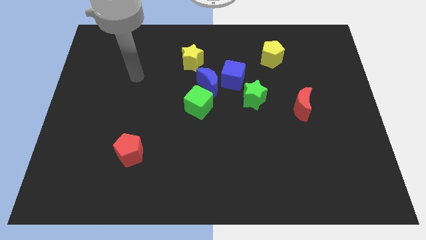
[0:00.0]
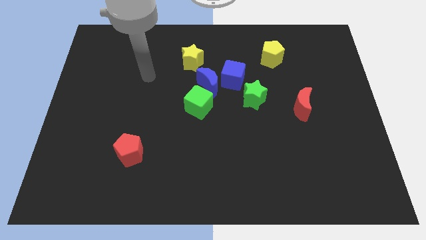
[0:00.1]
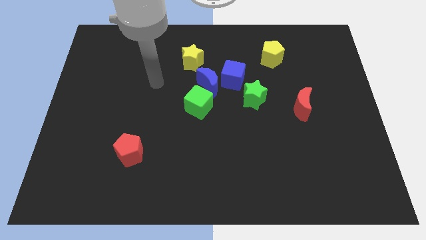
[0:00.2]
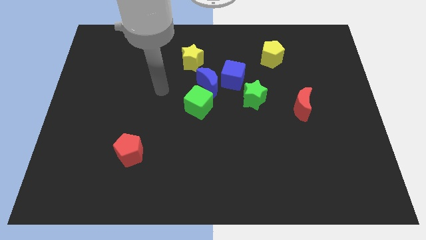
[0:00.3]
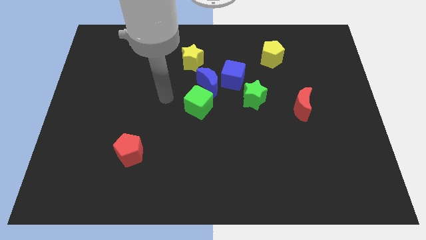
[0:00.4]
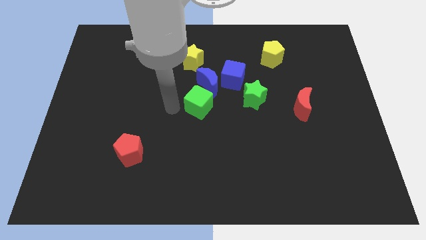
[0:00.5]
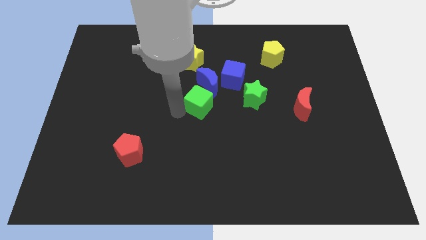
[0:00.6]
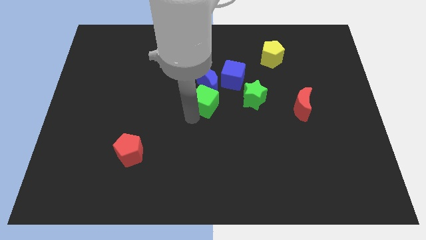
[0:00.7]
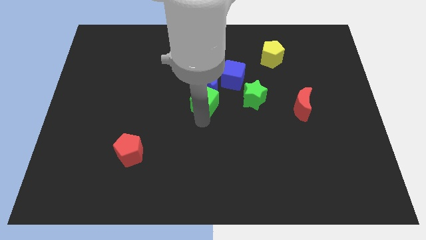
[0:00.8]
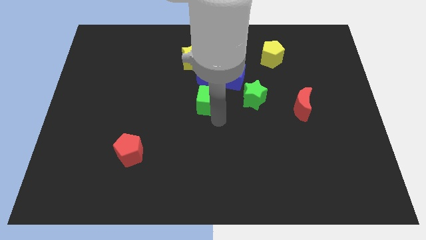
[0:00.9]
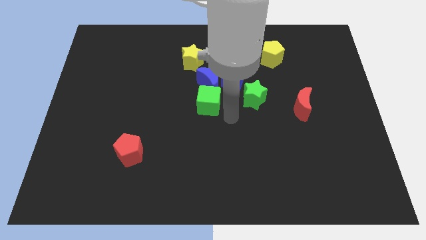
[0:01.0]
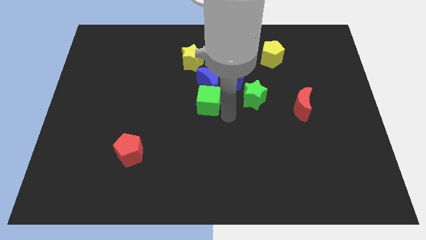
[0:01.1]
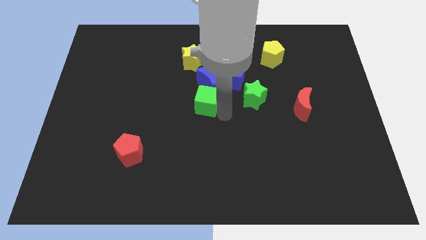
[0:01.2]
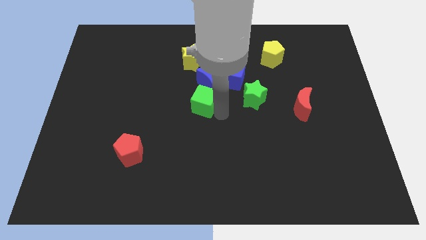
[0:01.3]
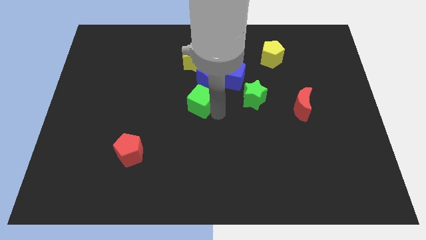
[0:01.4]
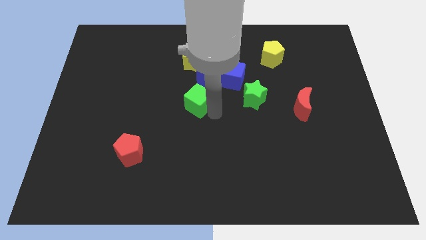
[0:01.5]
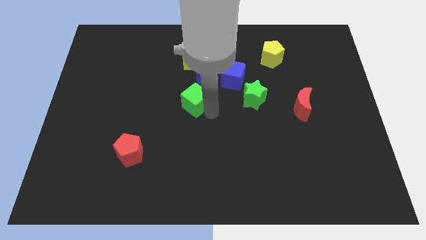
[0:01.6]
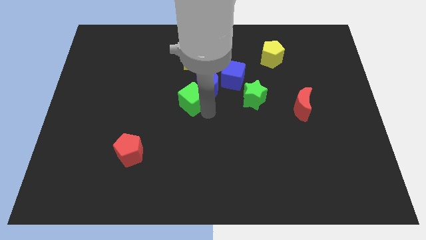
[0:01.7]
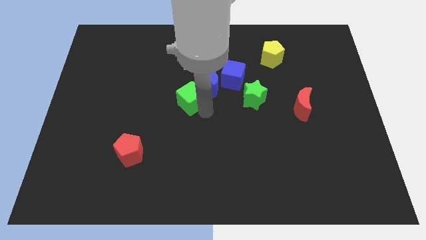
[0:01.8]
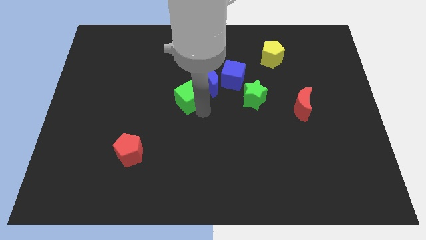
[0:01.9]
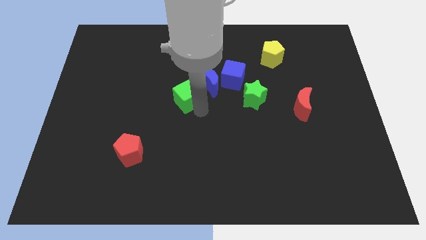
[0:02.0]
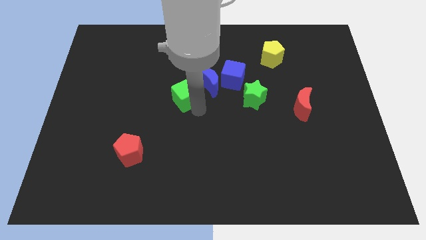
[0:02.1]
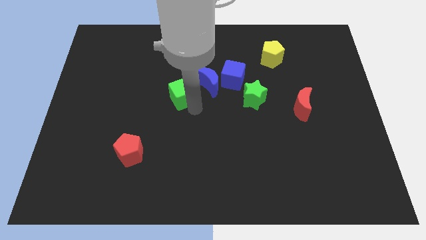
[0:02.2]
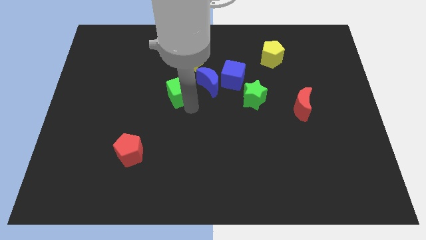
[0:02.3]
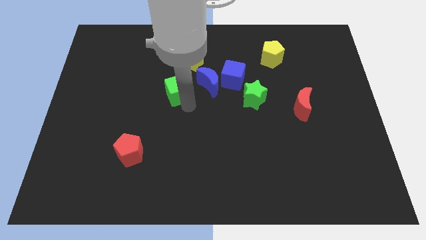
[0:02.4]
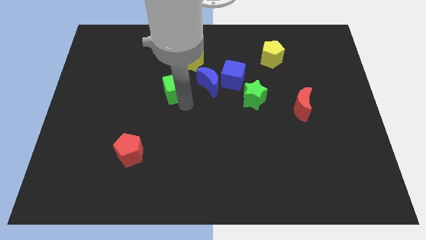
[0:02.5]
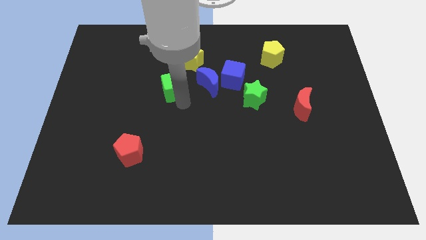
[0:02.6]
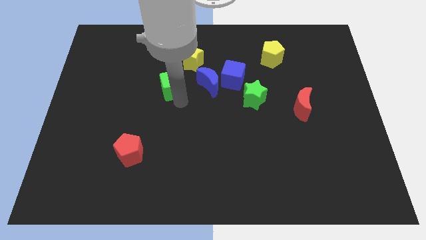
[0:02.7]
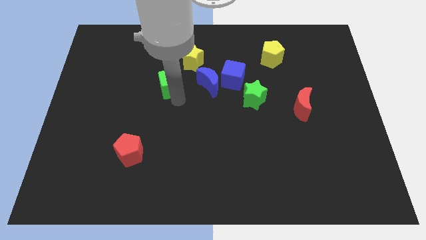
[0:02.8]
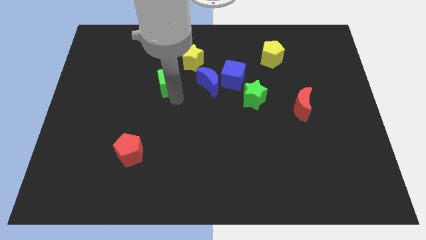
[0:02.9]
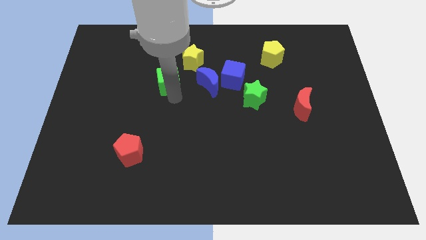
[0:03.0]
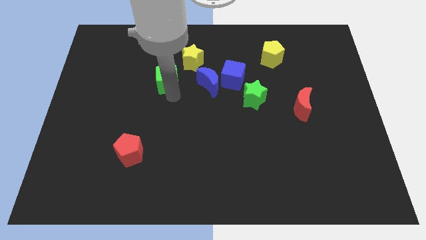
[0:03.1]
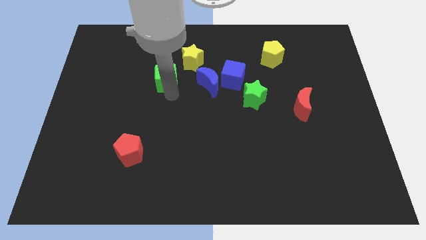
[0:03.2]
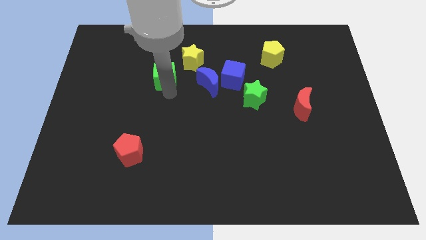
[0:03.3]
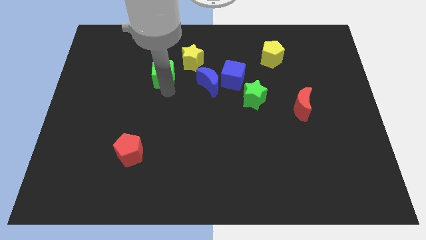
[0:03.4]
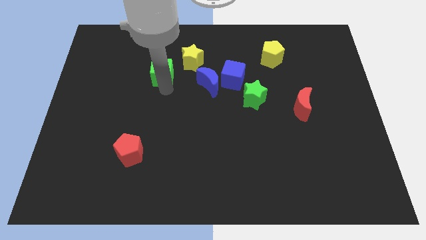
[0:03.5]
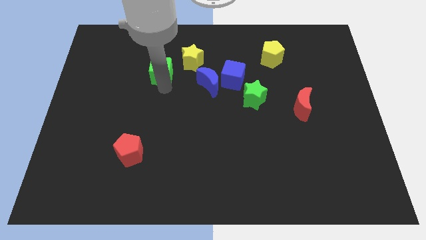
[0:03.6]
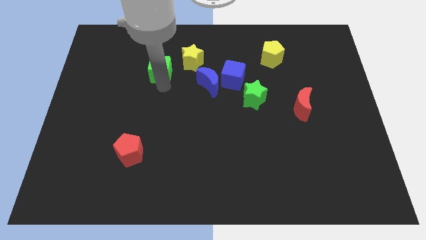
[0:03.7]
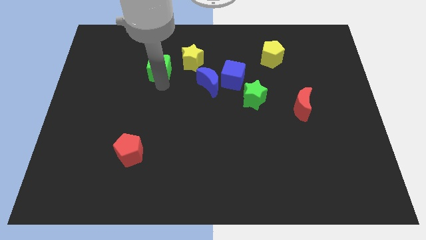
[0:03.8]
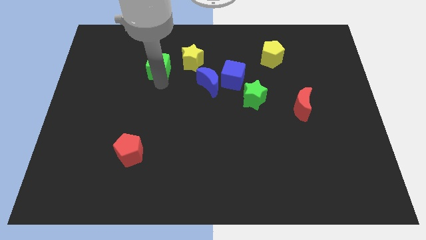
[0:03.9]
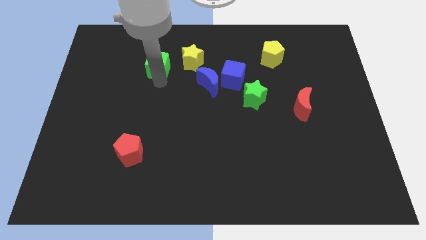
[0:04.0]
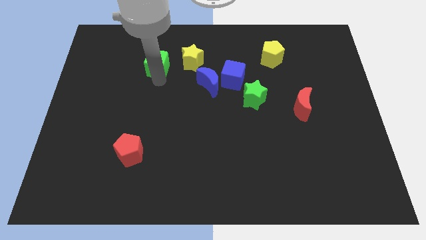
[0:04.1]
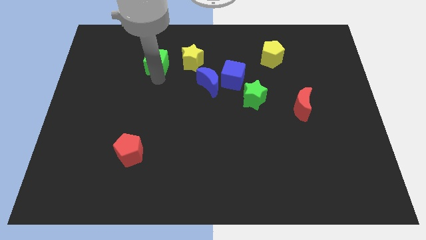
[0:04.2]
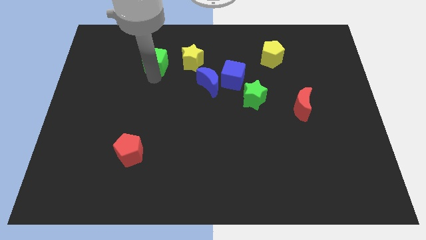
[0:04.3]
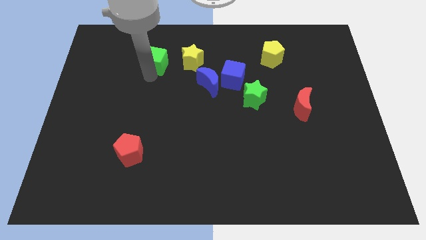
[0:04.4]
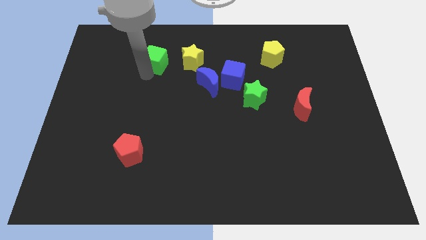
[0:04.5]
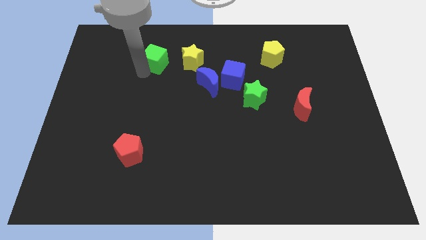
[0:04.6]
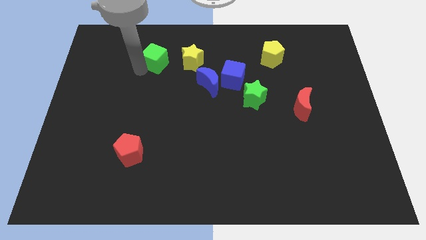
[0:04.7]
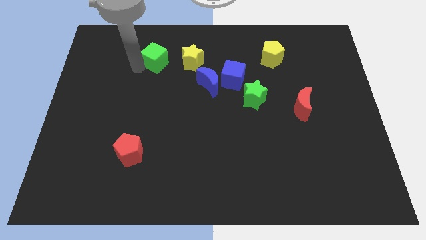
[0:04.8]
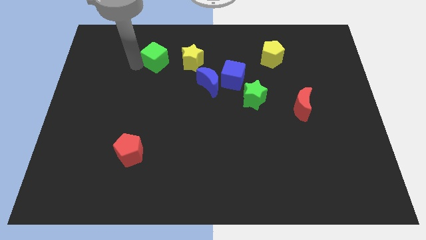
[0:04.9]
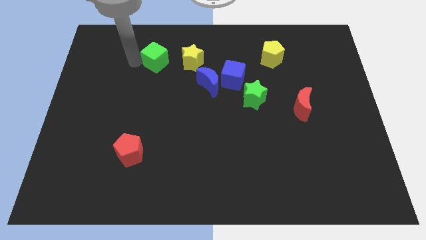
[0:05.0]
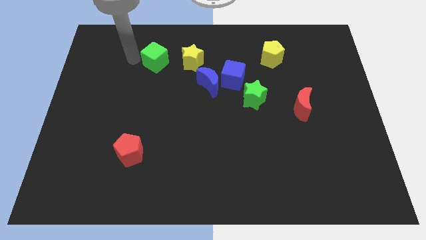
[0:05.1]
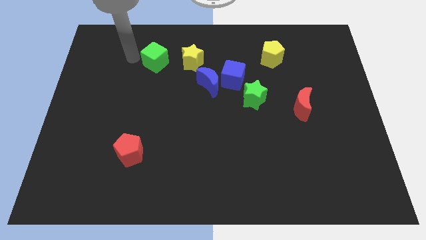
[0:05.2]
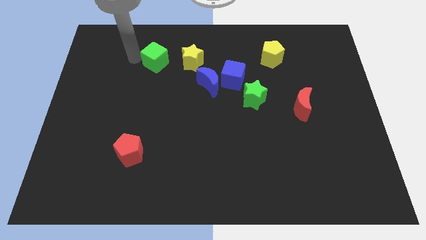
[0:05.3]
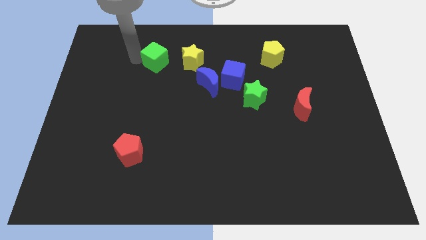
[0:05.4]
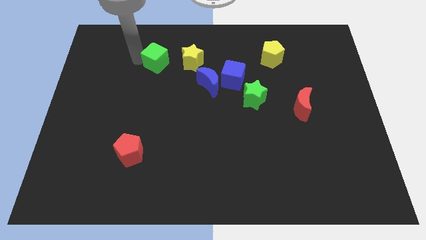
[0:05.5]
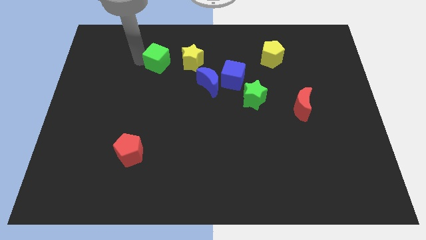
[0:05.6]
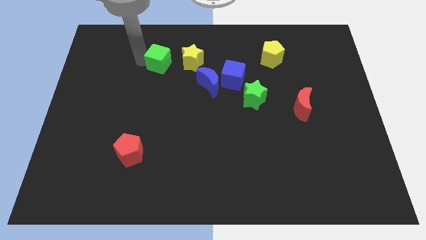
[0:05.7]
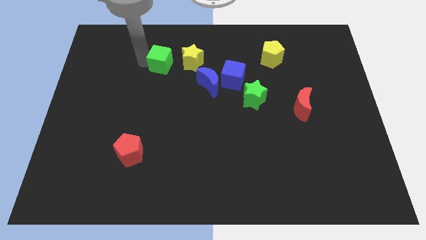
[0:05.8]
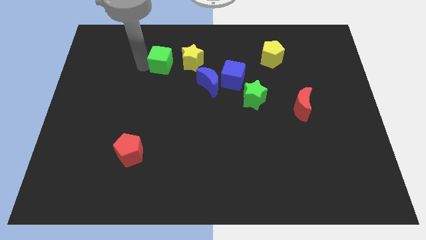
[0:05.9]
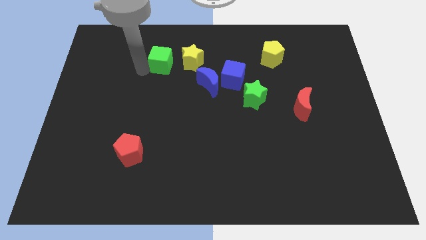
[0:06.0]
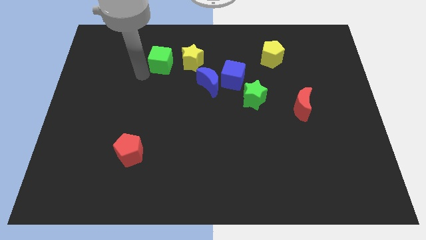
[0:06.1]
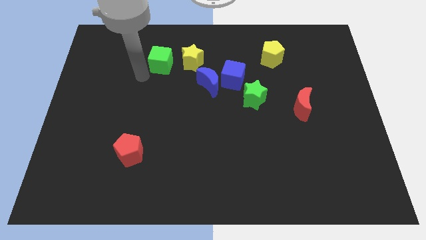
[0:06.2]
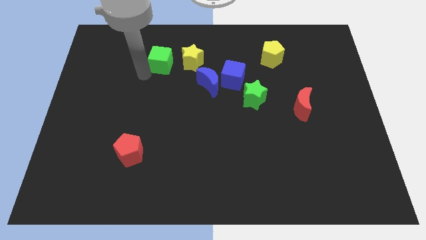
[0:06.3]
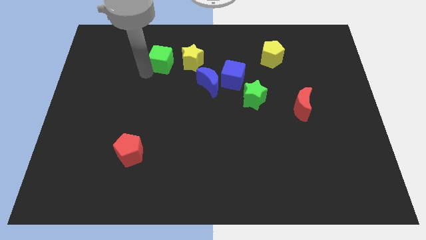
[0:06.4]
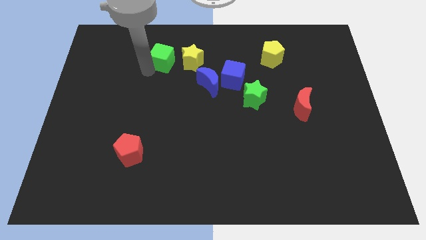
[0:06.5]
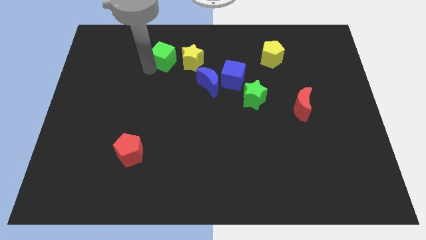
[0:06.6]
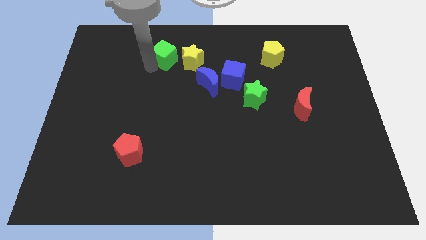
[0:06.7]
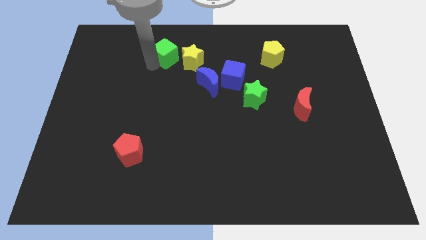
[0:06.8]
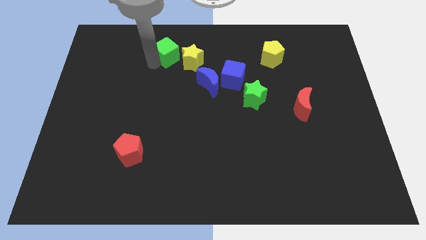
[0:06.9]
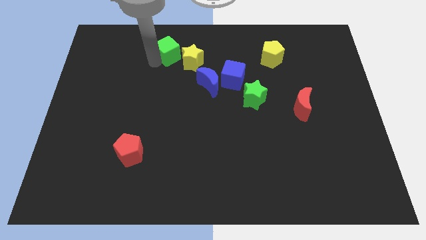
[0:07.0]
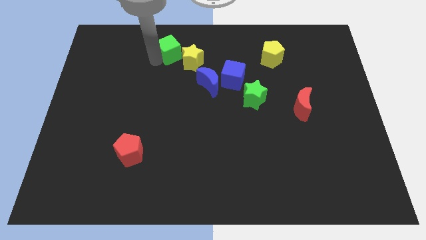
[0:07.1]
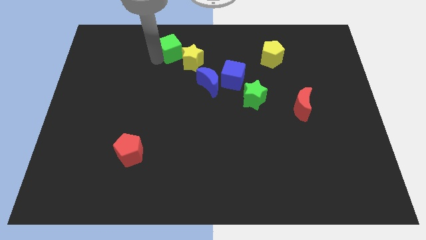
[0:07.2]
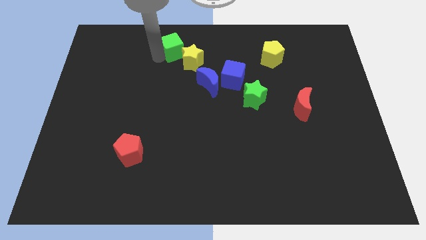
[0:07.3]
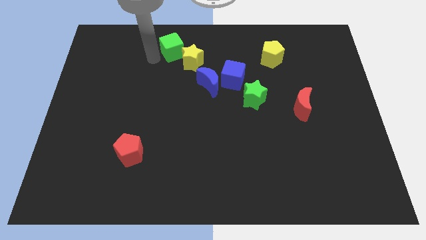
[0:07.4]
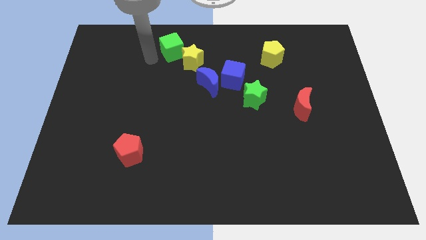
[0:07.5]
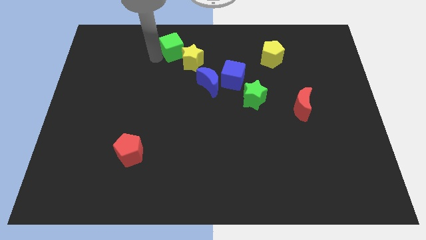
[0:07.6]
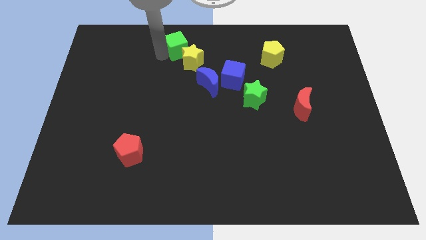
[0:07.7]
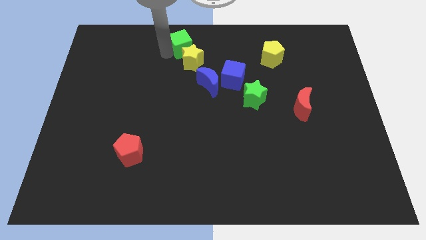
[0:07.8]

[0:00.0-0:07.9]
move the green cube to the towards your base

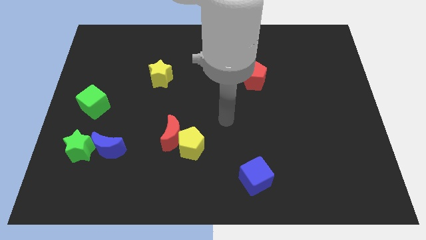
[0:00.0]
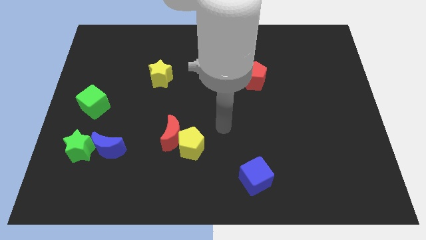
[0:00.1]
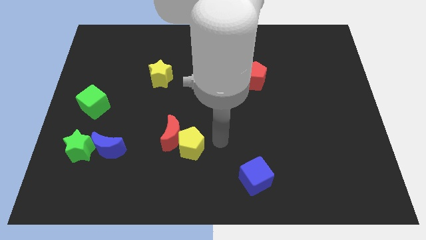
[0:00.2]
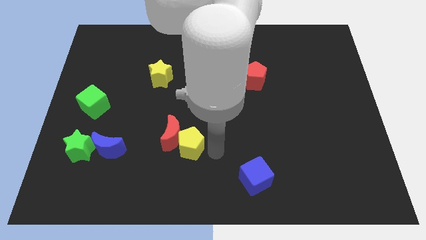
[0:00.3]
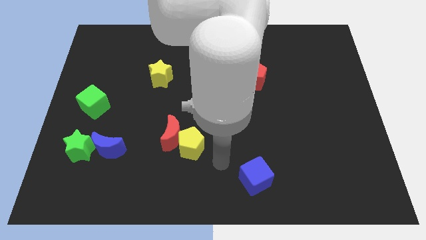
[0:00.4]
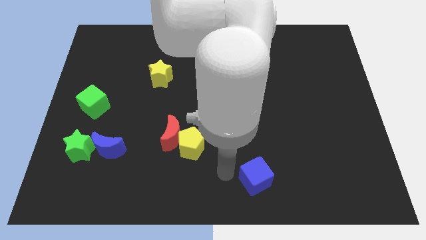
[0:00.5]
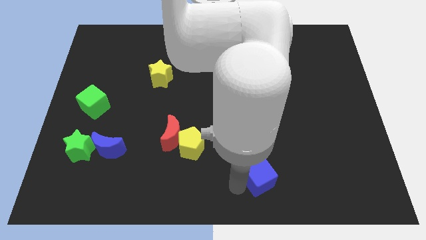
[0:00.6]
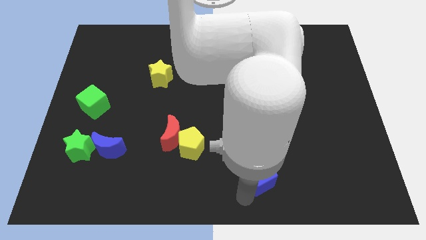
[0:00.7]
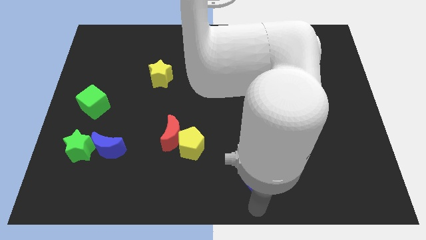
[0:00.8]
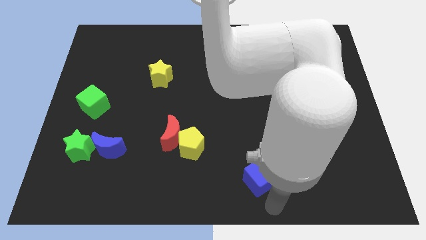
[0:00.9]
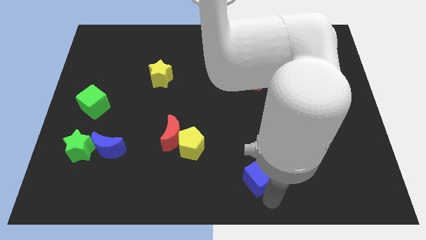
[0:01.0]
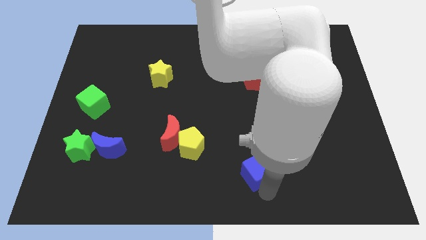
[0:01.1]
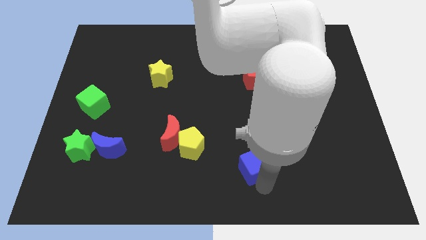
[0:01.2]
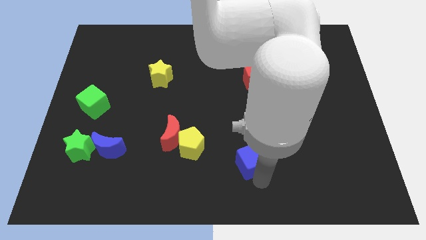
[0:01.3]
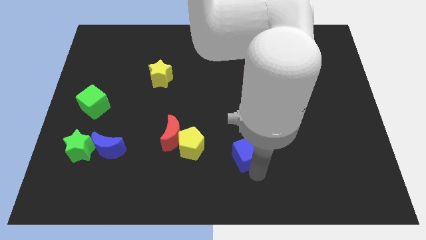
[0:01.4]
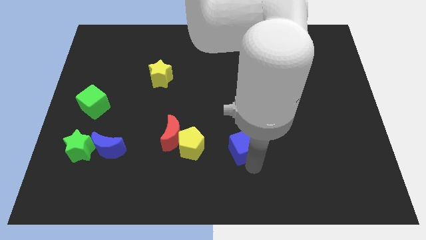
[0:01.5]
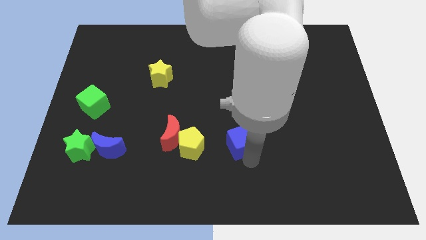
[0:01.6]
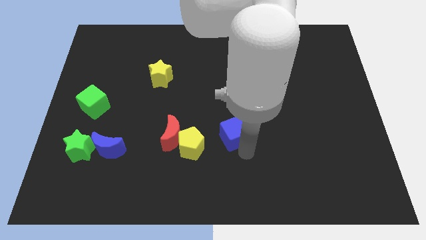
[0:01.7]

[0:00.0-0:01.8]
move the blue cube to the center
